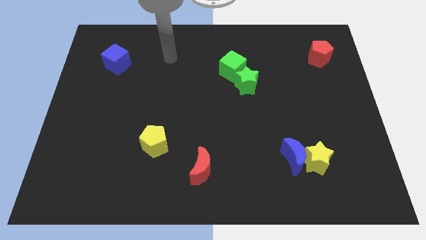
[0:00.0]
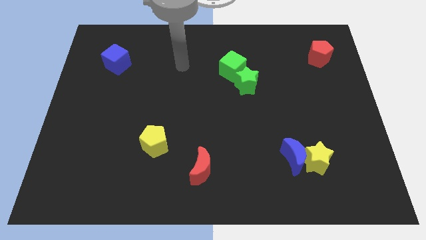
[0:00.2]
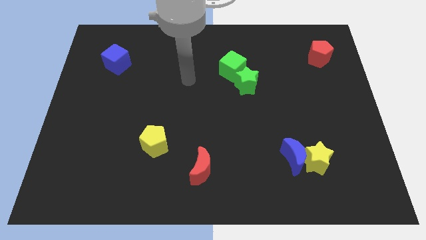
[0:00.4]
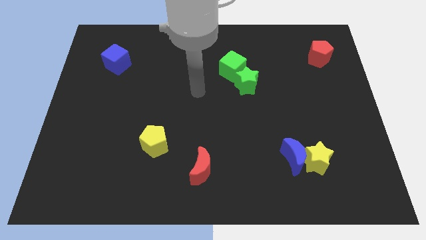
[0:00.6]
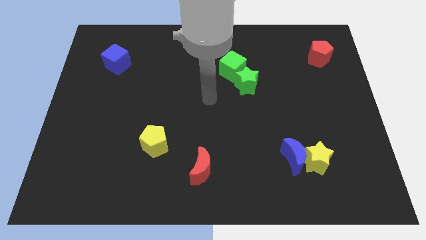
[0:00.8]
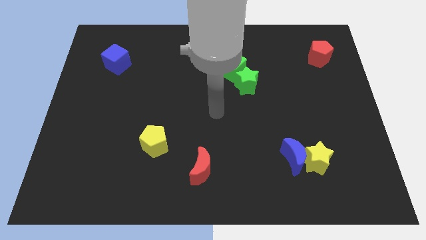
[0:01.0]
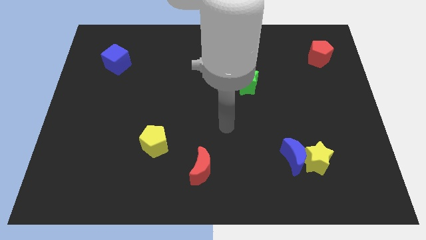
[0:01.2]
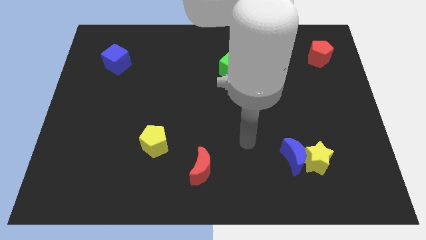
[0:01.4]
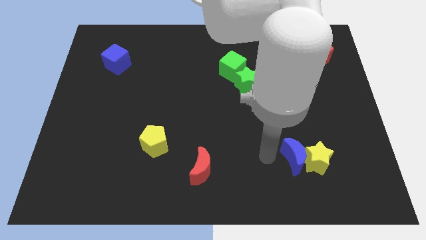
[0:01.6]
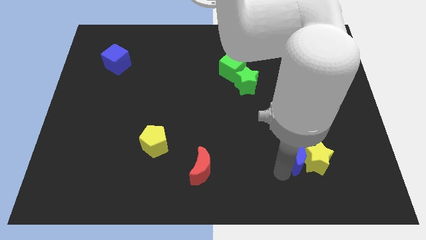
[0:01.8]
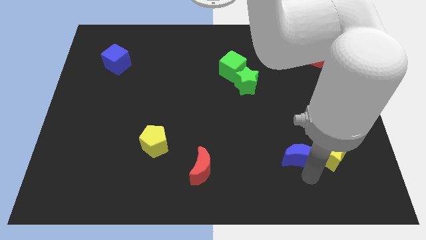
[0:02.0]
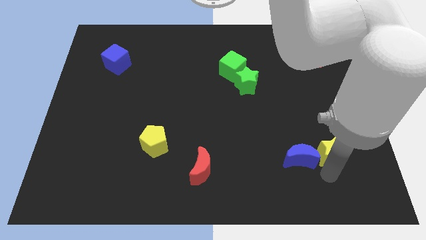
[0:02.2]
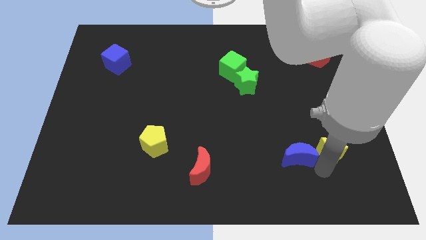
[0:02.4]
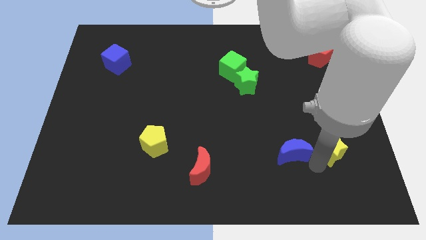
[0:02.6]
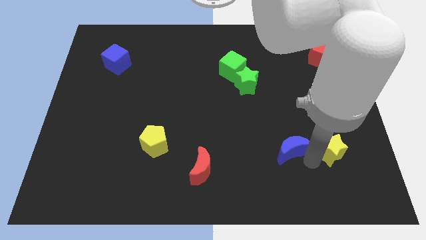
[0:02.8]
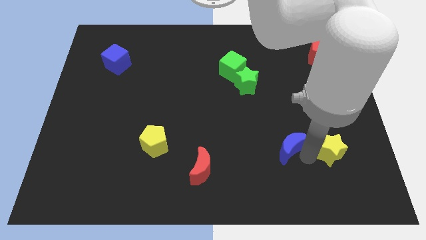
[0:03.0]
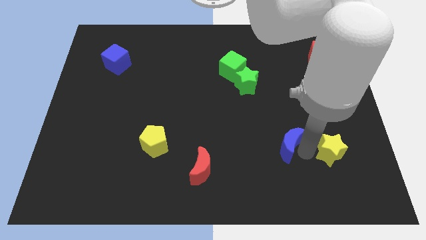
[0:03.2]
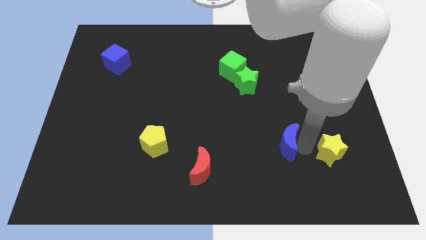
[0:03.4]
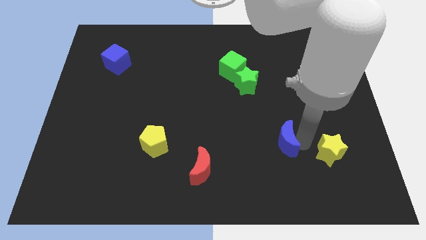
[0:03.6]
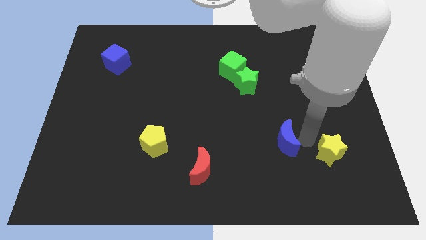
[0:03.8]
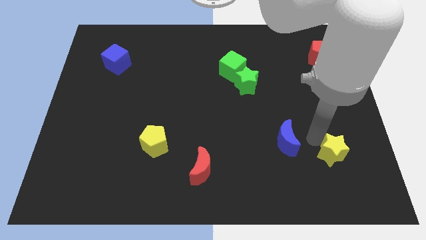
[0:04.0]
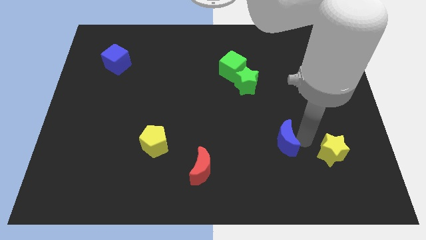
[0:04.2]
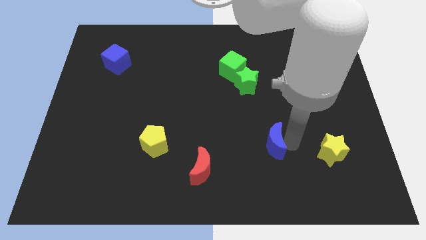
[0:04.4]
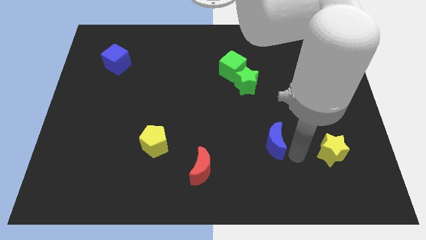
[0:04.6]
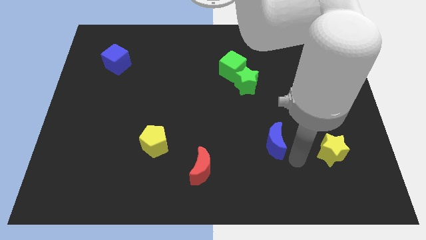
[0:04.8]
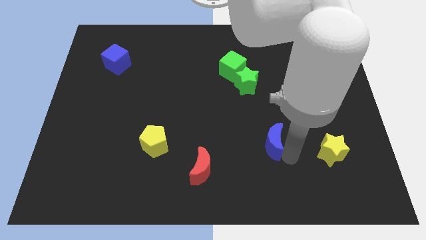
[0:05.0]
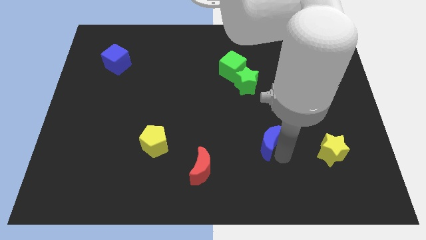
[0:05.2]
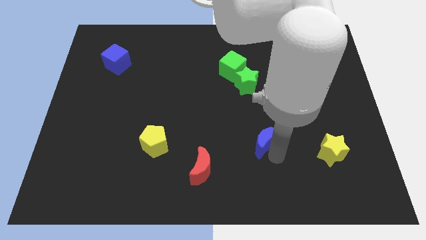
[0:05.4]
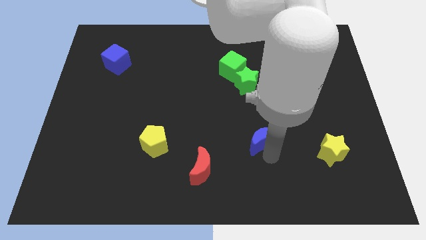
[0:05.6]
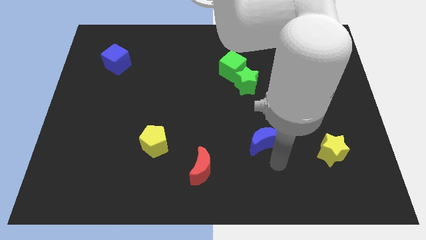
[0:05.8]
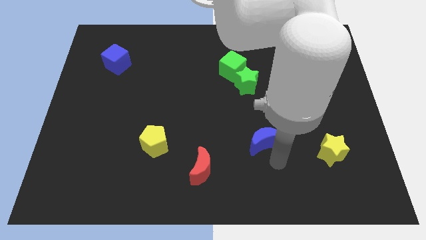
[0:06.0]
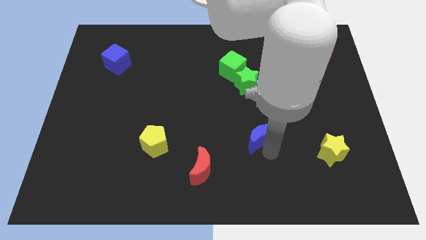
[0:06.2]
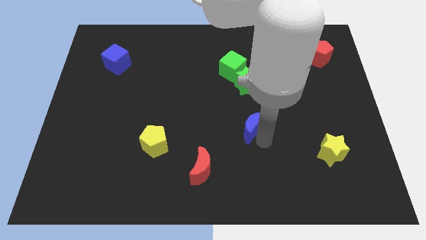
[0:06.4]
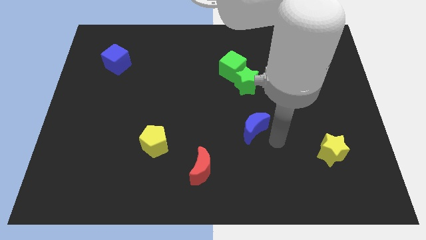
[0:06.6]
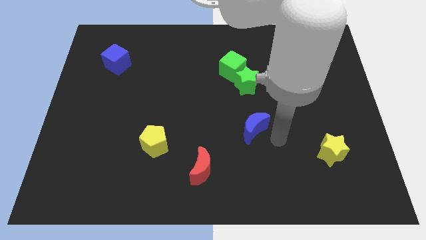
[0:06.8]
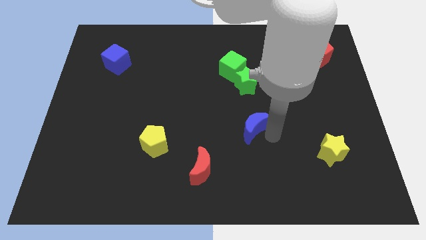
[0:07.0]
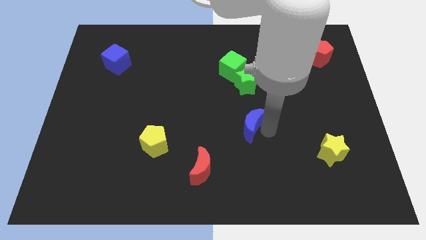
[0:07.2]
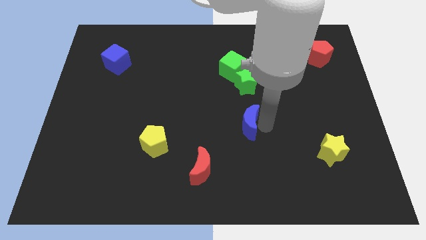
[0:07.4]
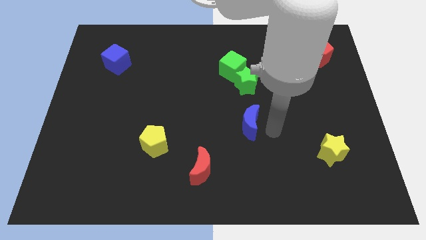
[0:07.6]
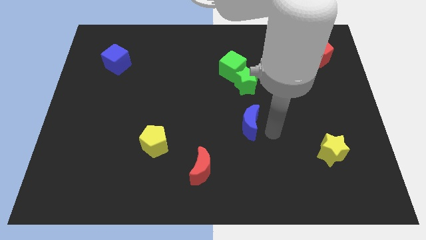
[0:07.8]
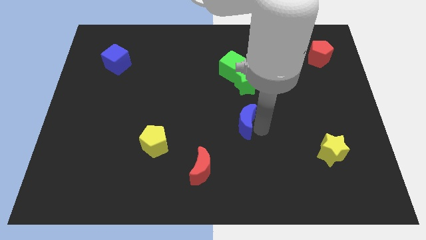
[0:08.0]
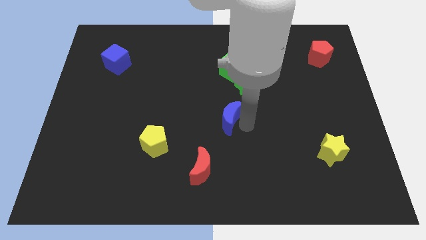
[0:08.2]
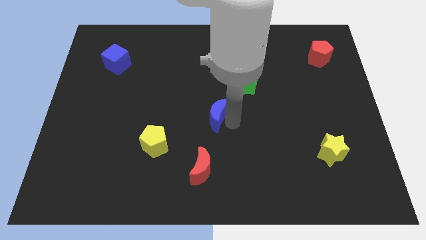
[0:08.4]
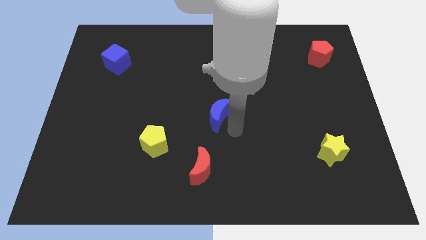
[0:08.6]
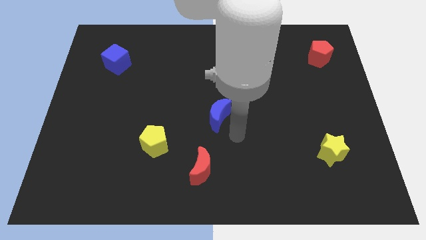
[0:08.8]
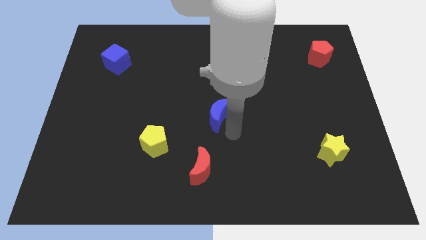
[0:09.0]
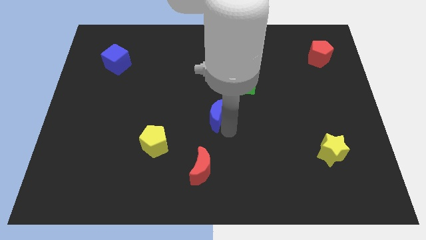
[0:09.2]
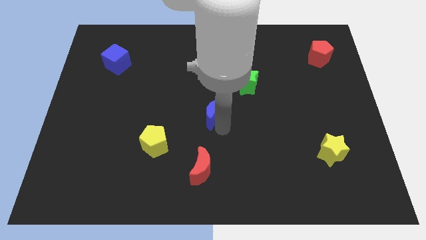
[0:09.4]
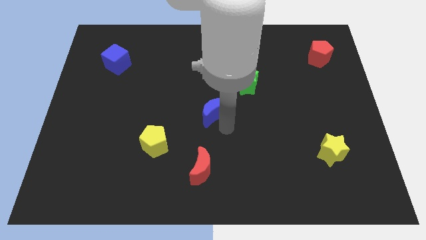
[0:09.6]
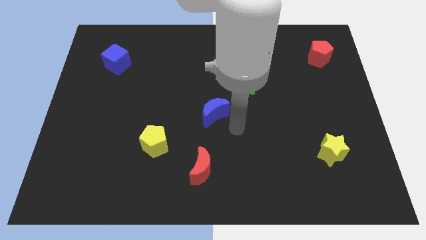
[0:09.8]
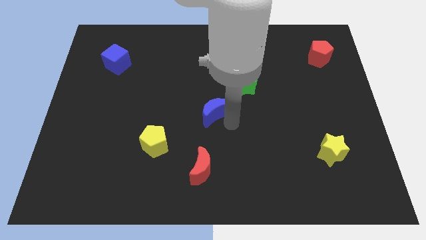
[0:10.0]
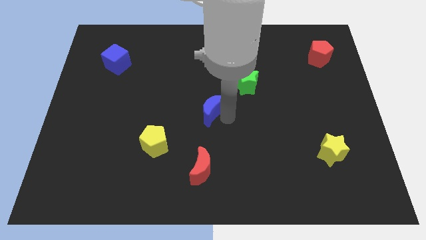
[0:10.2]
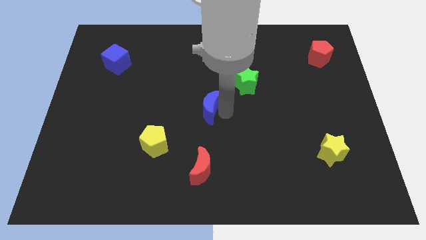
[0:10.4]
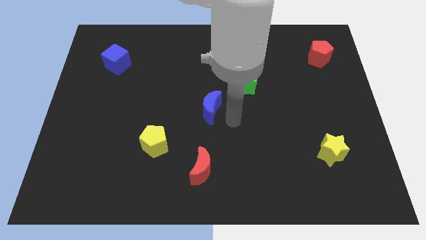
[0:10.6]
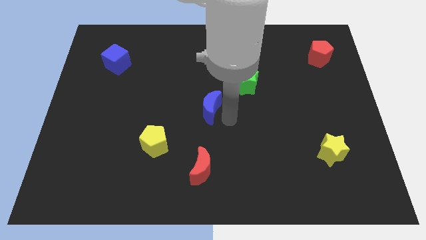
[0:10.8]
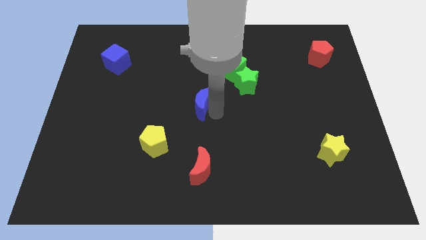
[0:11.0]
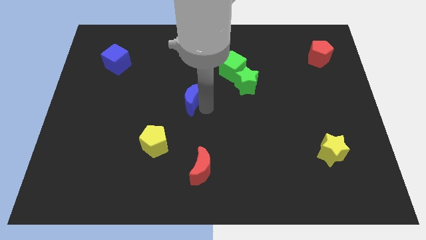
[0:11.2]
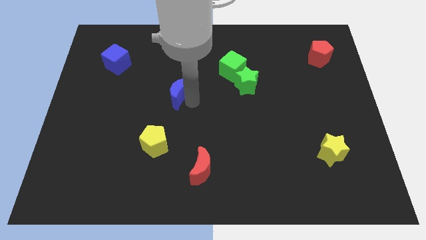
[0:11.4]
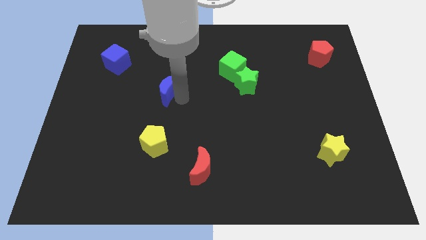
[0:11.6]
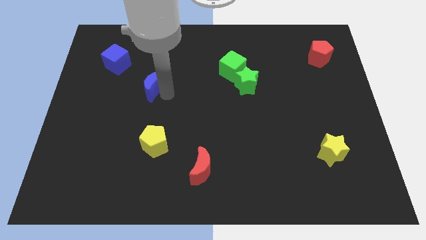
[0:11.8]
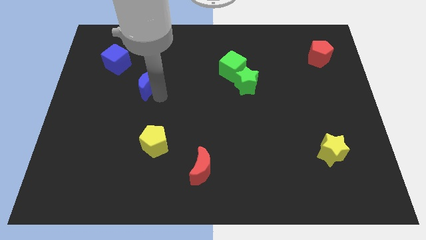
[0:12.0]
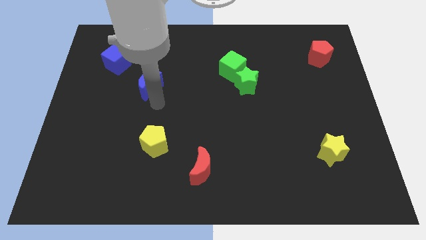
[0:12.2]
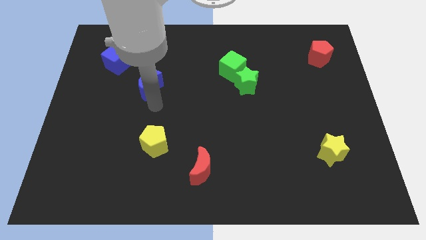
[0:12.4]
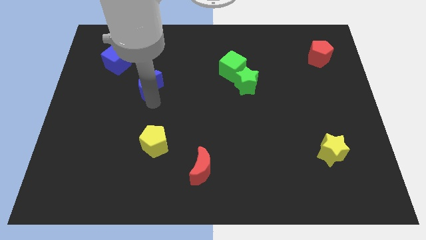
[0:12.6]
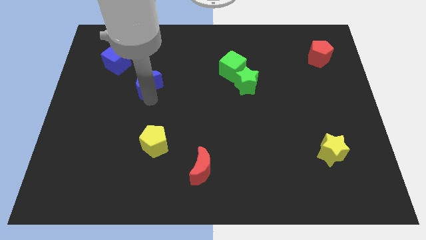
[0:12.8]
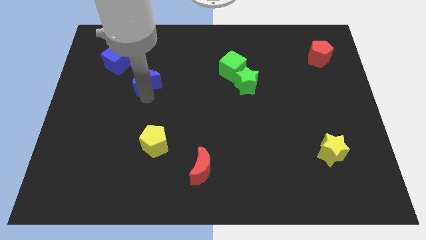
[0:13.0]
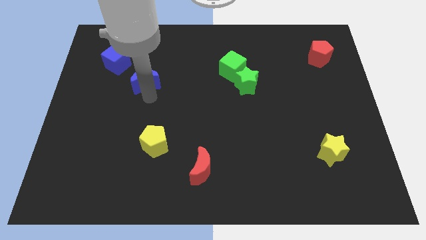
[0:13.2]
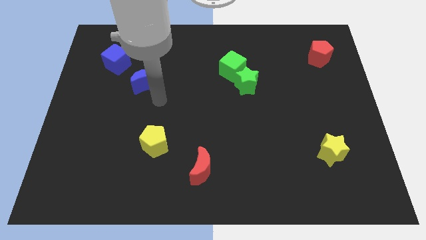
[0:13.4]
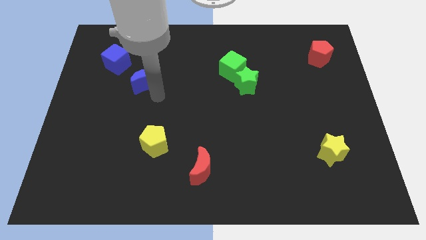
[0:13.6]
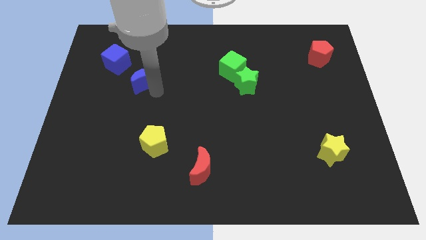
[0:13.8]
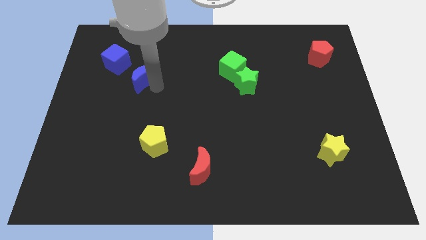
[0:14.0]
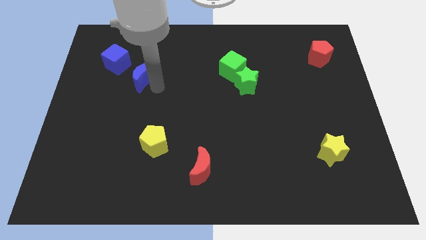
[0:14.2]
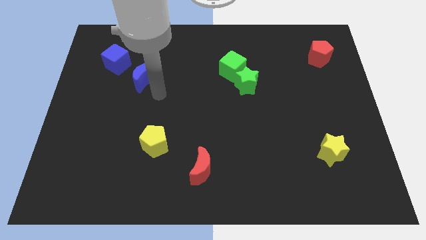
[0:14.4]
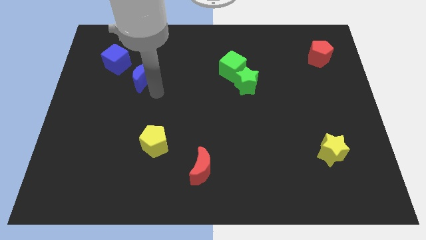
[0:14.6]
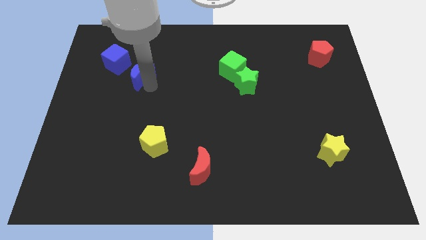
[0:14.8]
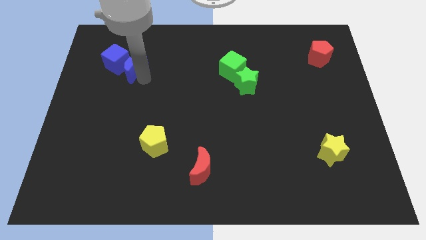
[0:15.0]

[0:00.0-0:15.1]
put the blue moon towards the blue cube
